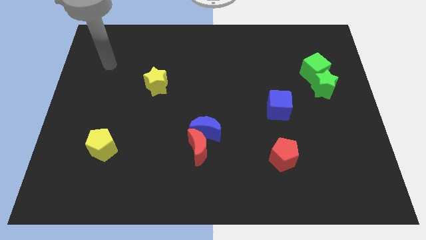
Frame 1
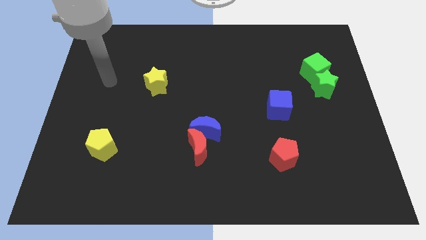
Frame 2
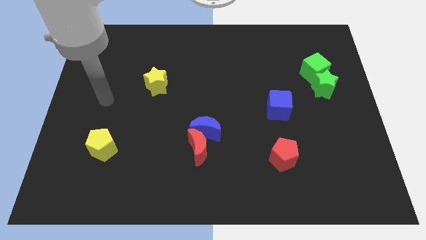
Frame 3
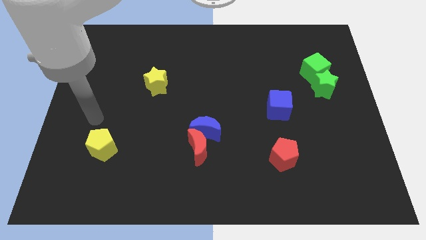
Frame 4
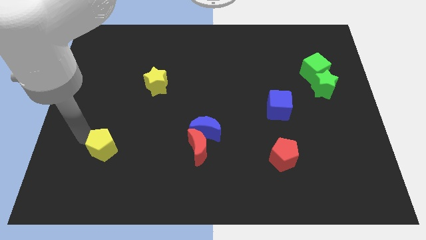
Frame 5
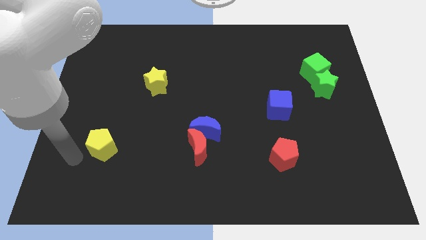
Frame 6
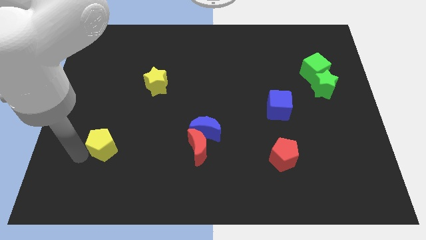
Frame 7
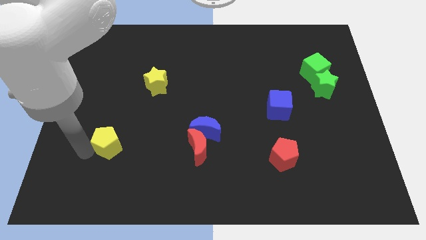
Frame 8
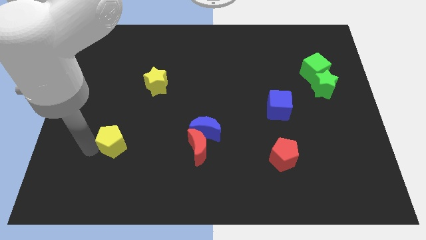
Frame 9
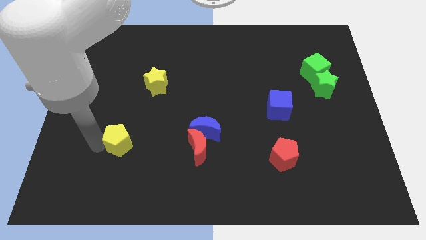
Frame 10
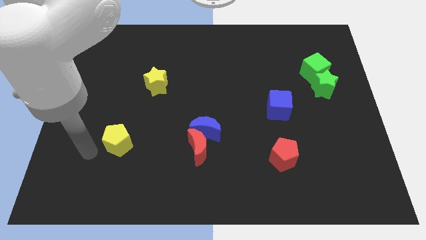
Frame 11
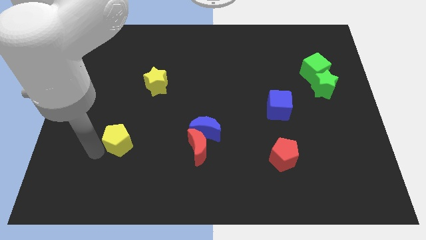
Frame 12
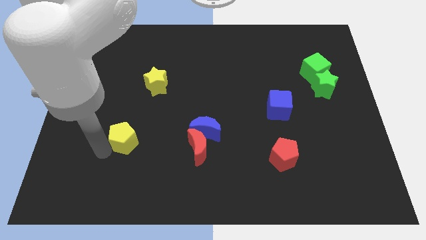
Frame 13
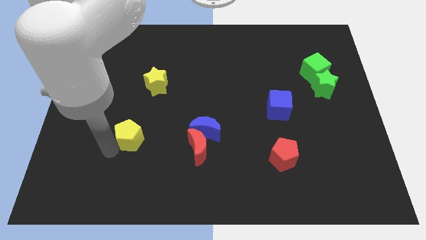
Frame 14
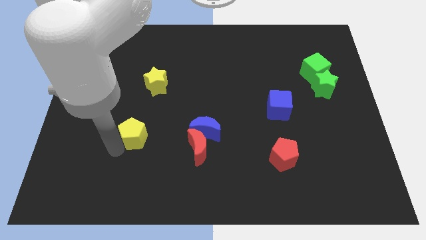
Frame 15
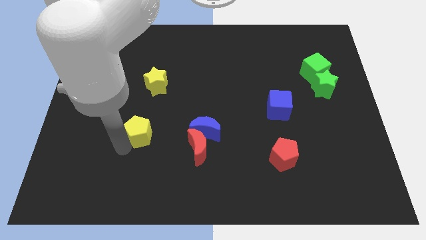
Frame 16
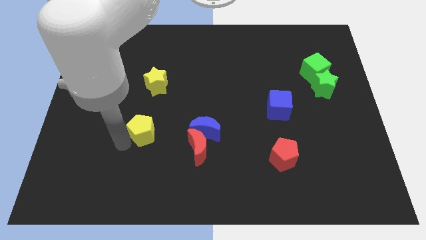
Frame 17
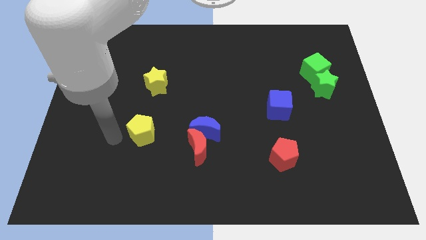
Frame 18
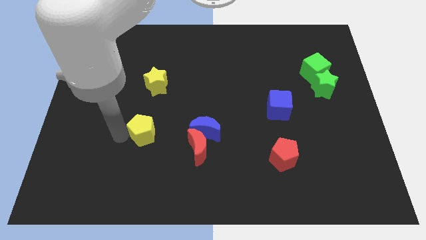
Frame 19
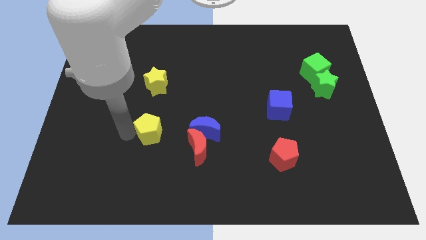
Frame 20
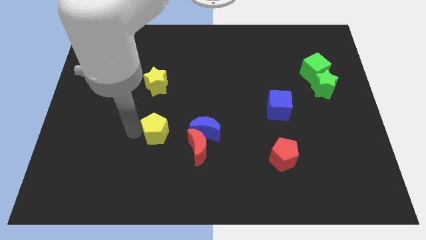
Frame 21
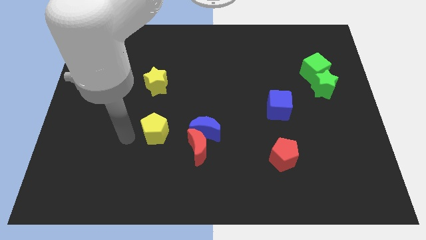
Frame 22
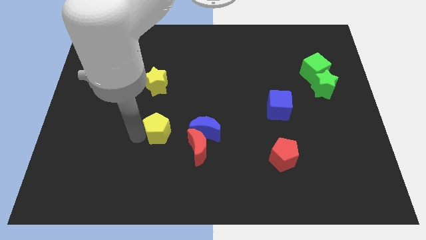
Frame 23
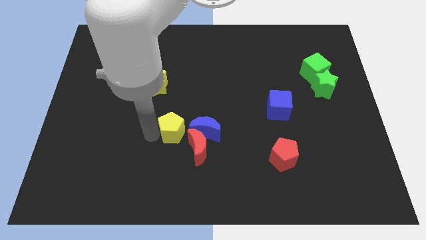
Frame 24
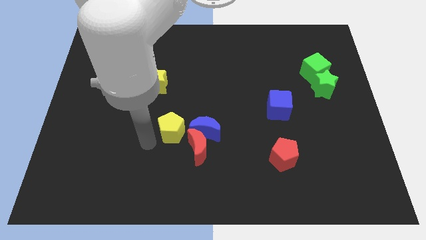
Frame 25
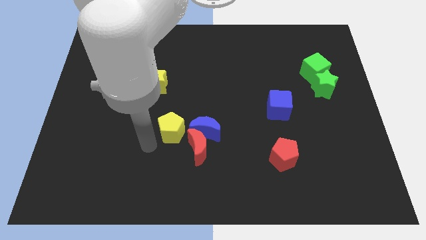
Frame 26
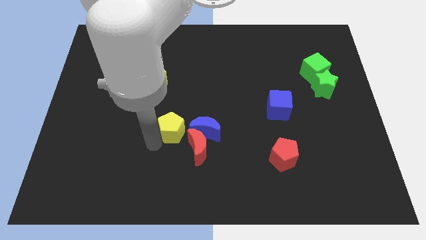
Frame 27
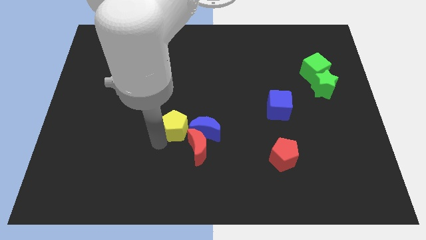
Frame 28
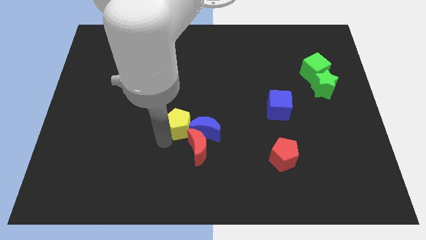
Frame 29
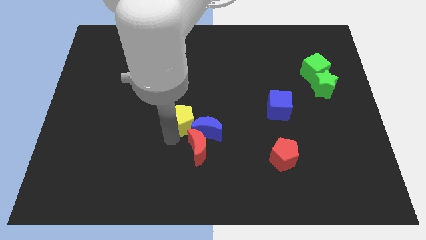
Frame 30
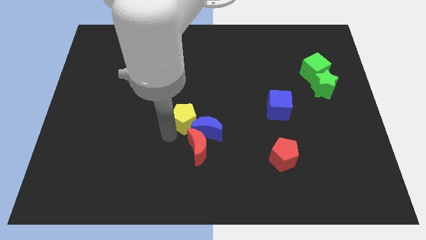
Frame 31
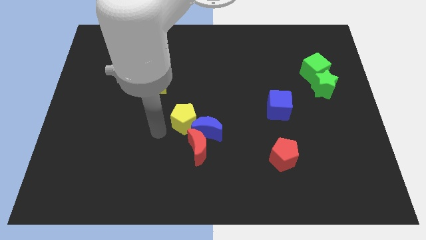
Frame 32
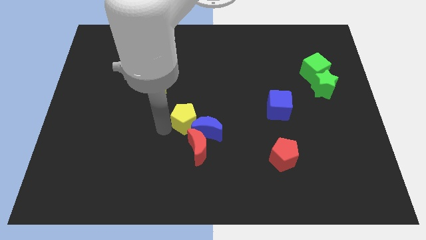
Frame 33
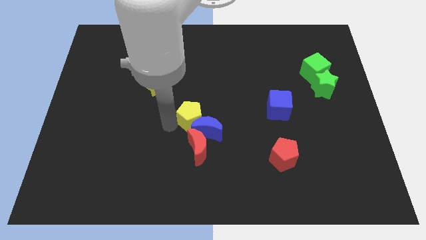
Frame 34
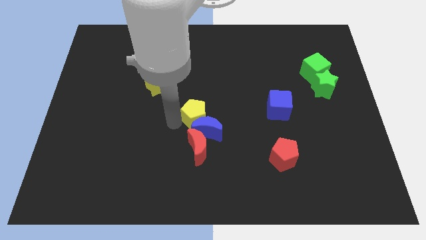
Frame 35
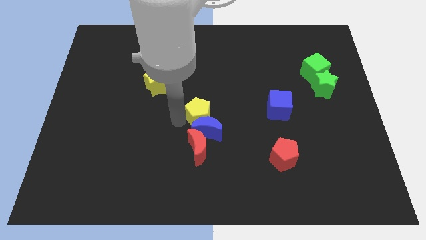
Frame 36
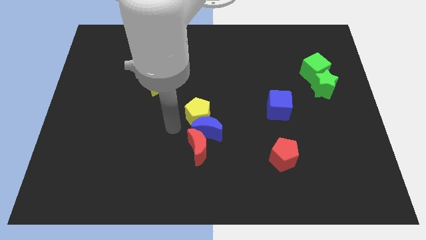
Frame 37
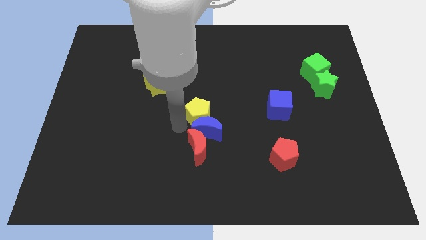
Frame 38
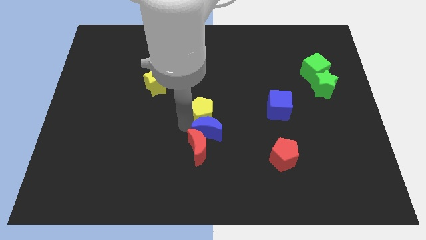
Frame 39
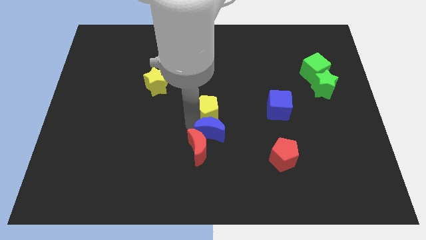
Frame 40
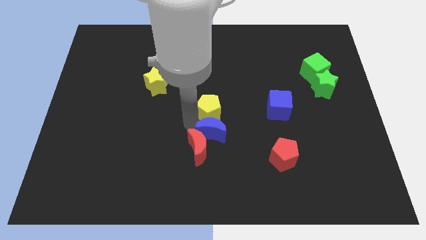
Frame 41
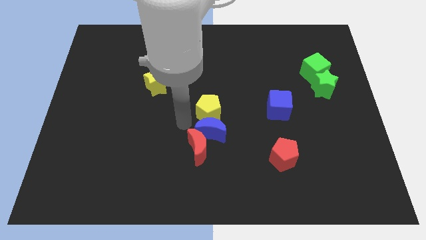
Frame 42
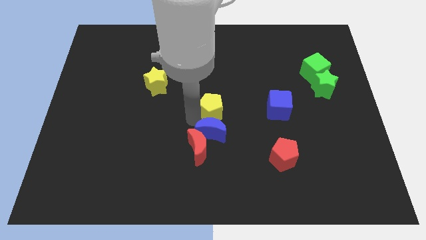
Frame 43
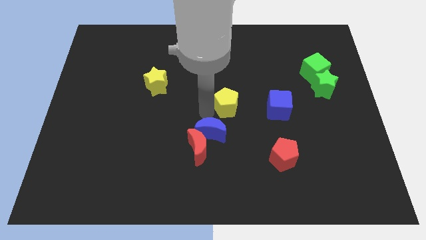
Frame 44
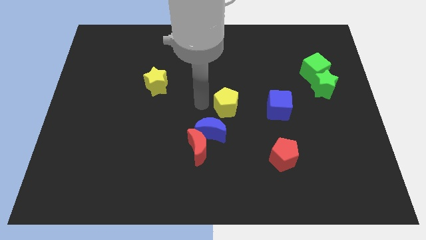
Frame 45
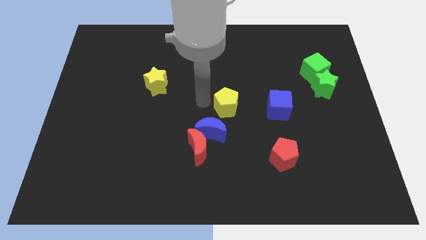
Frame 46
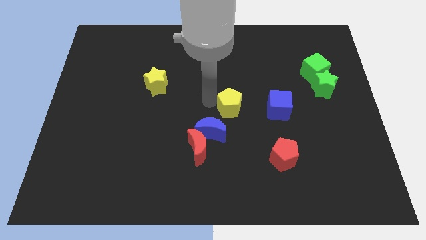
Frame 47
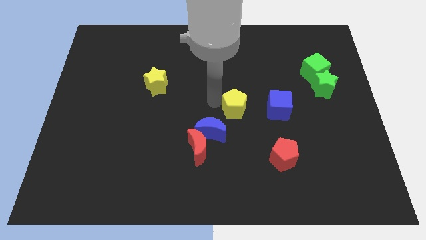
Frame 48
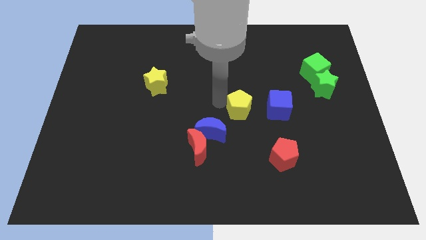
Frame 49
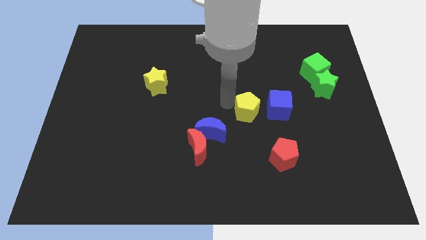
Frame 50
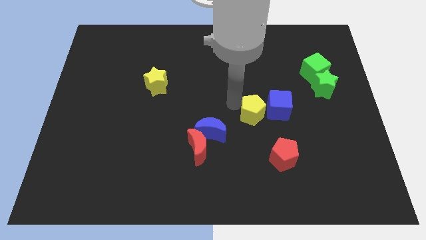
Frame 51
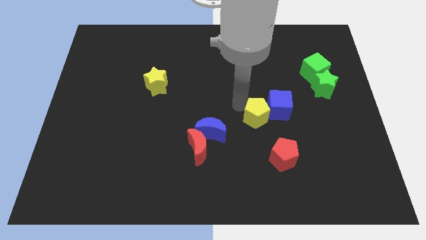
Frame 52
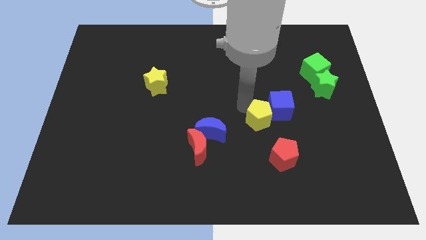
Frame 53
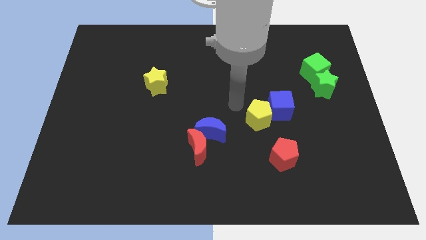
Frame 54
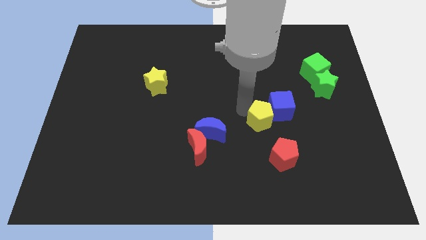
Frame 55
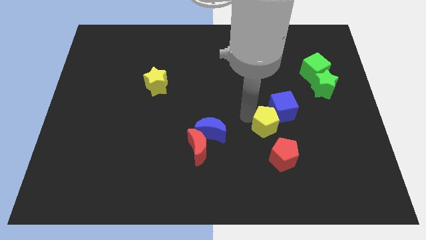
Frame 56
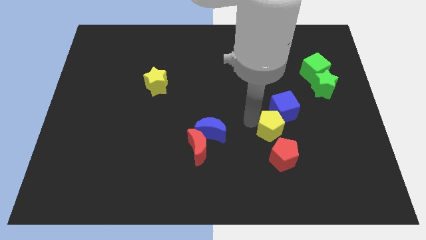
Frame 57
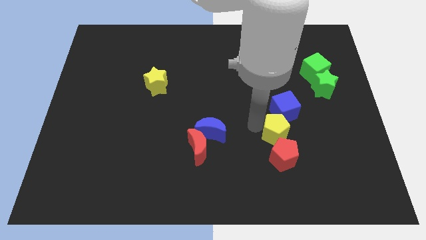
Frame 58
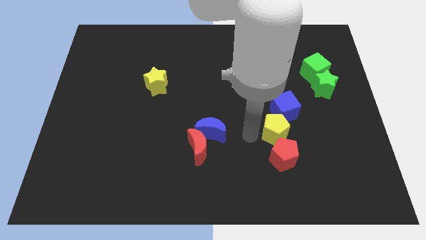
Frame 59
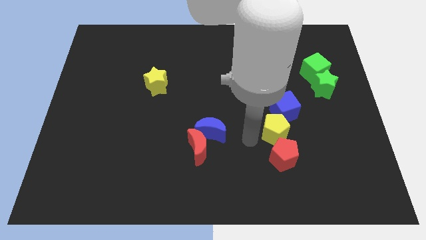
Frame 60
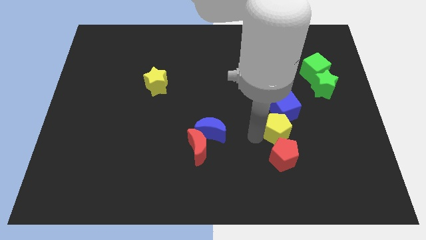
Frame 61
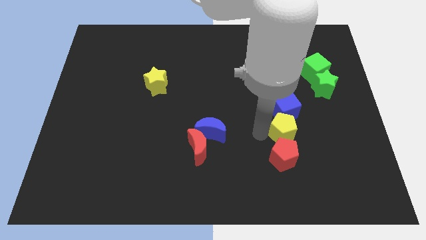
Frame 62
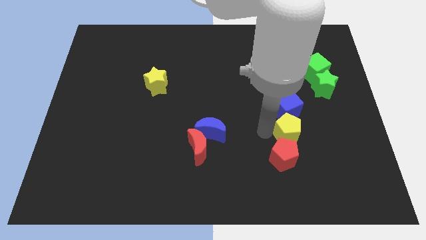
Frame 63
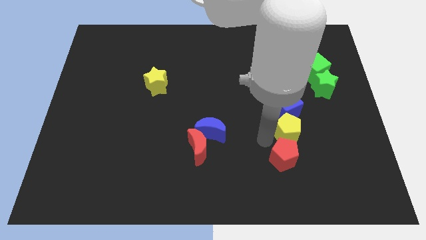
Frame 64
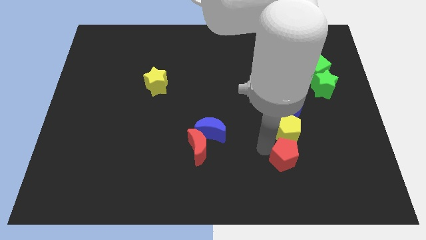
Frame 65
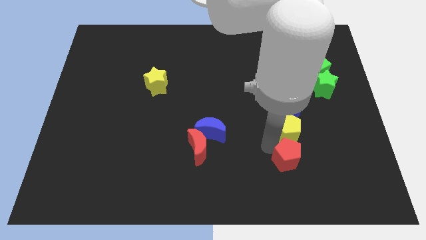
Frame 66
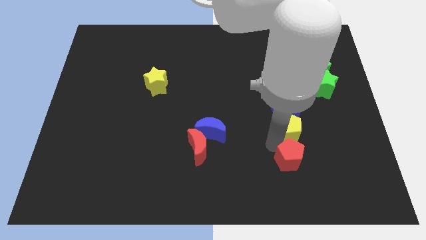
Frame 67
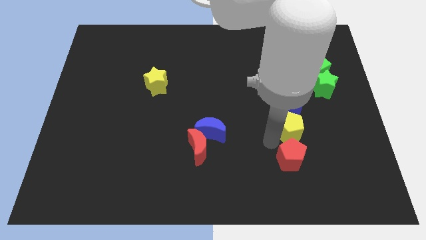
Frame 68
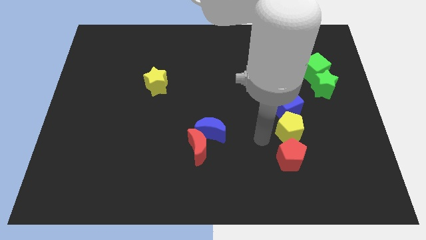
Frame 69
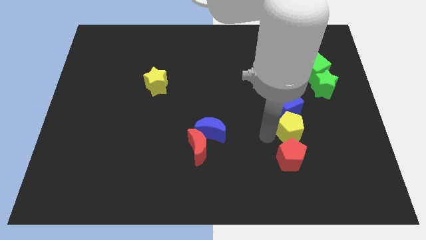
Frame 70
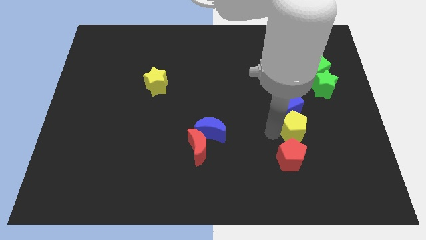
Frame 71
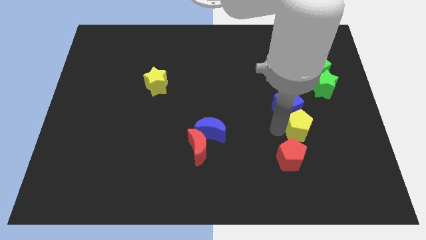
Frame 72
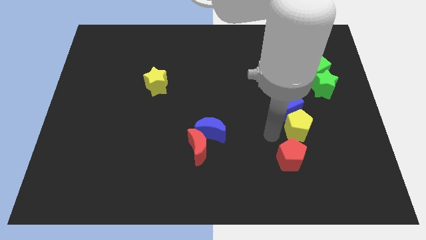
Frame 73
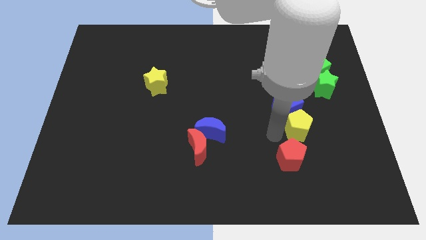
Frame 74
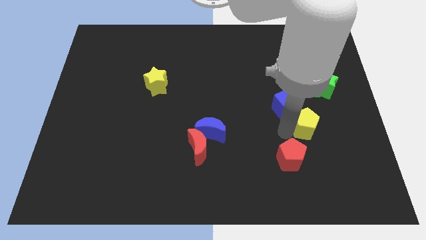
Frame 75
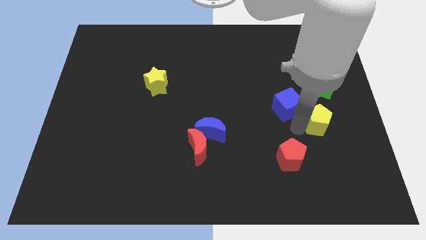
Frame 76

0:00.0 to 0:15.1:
move the yellow pentagon below the green star

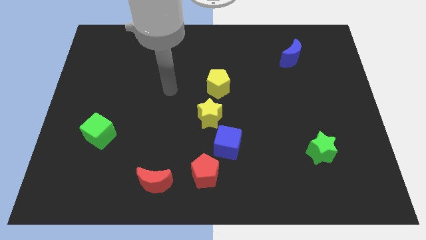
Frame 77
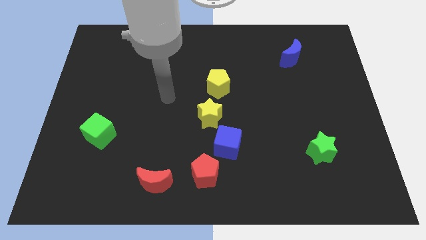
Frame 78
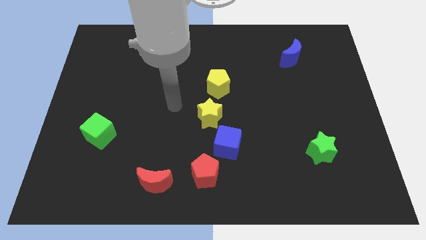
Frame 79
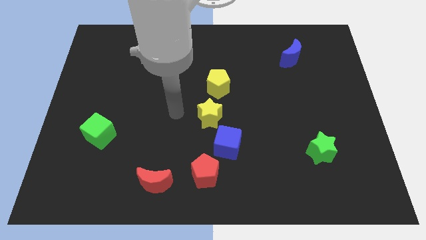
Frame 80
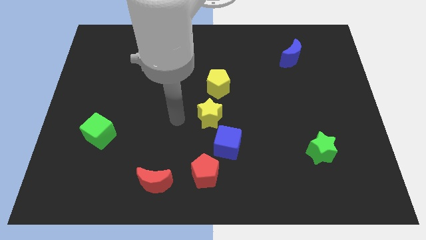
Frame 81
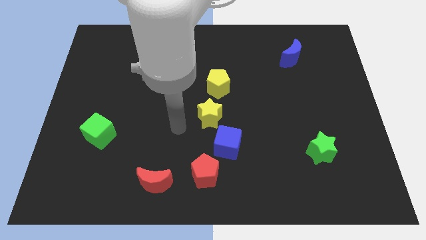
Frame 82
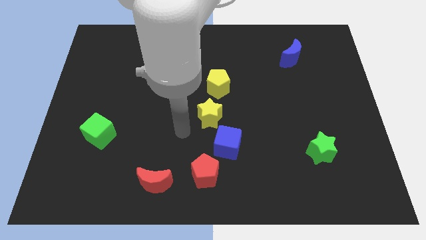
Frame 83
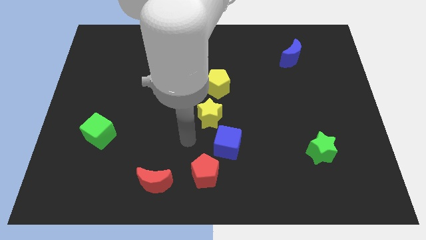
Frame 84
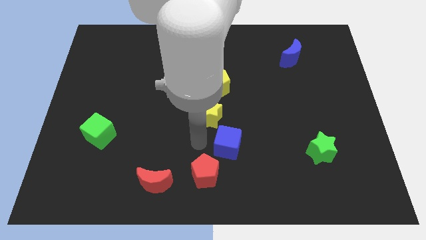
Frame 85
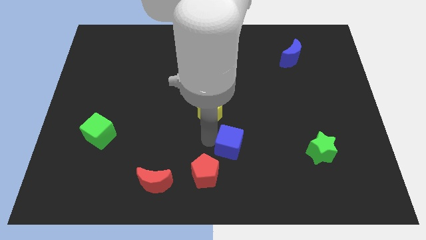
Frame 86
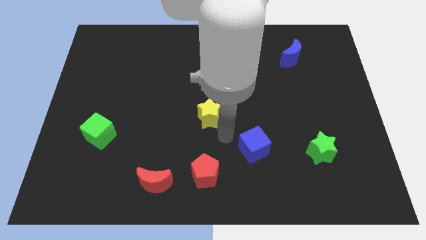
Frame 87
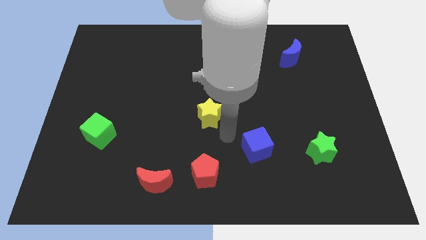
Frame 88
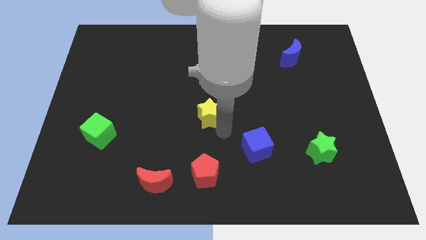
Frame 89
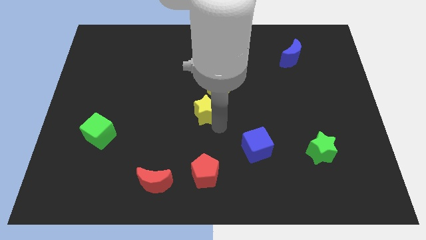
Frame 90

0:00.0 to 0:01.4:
move the yellow star to the bottom left side of the yellow pentagon
